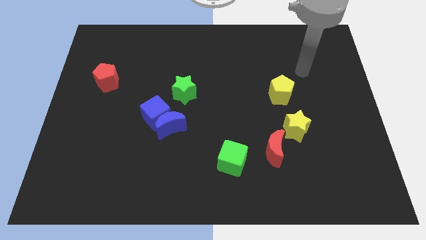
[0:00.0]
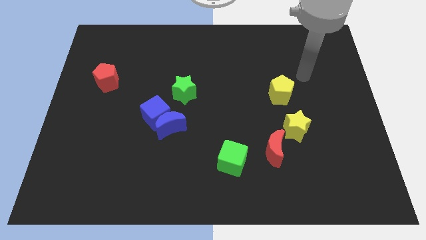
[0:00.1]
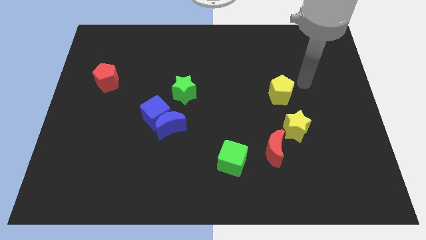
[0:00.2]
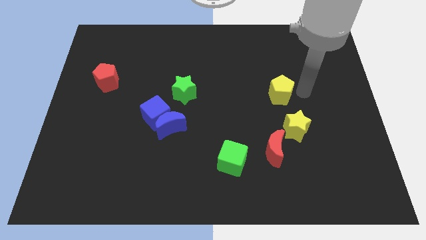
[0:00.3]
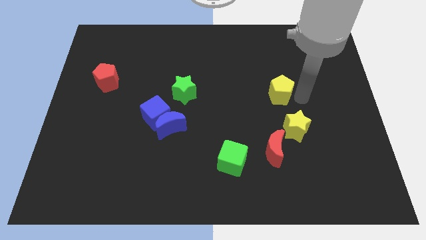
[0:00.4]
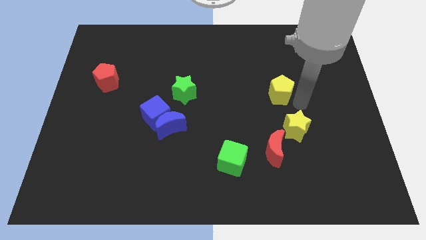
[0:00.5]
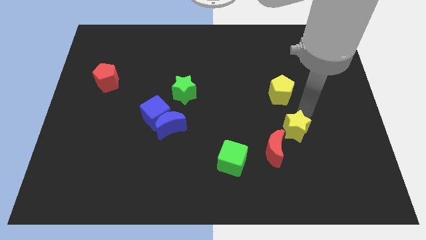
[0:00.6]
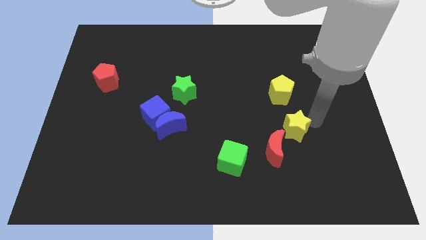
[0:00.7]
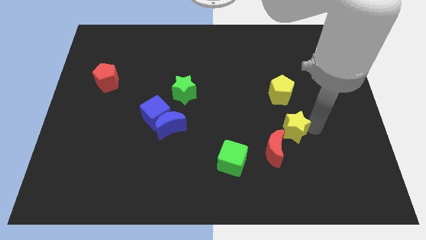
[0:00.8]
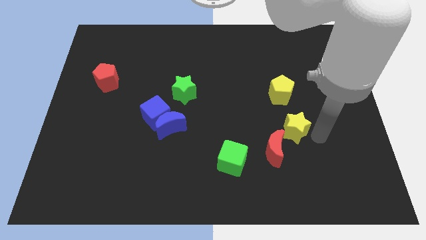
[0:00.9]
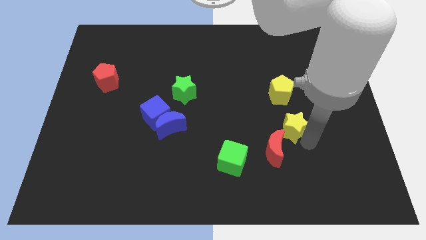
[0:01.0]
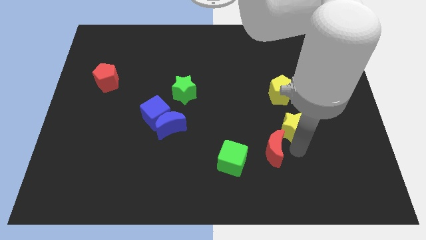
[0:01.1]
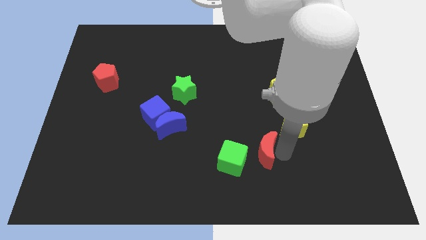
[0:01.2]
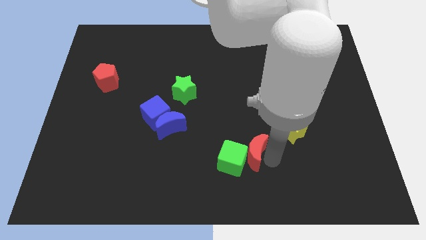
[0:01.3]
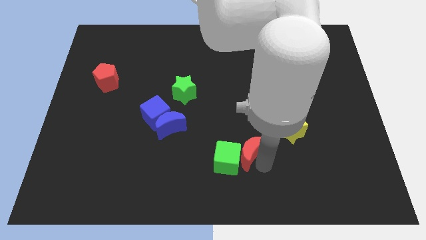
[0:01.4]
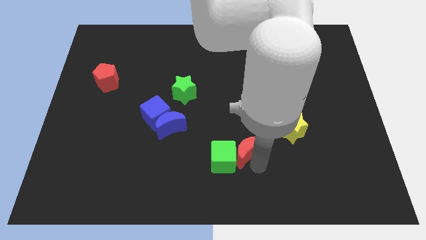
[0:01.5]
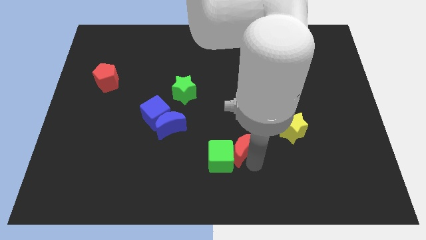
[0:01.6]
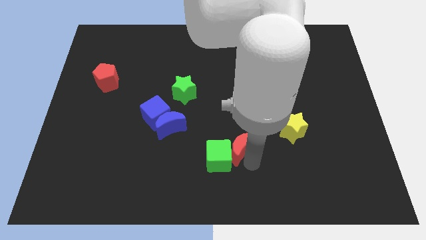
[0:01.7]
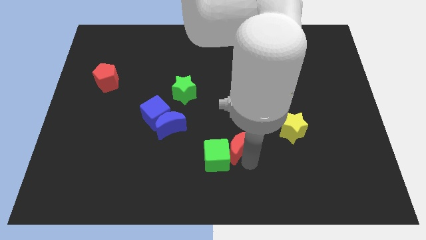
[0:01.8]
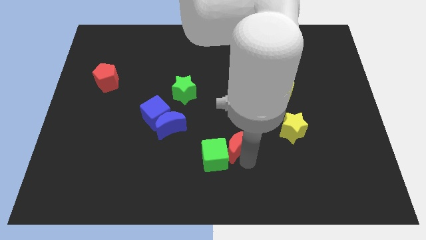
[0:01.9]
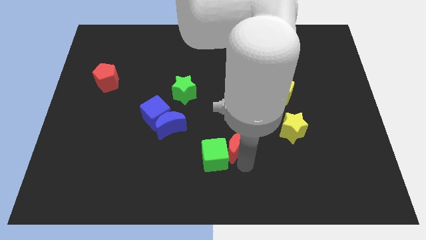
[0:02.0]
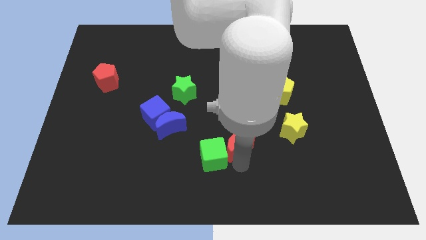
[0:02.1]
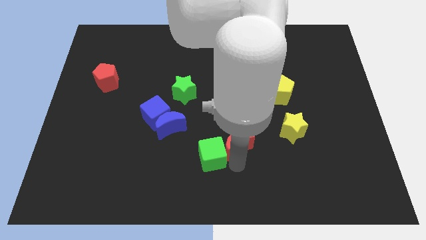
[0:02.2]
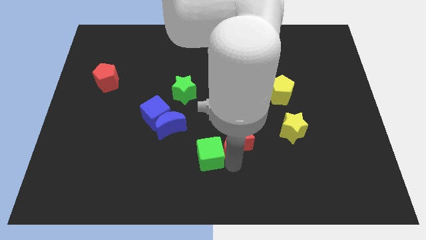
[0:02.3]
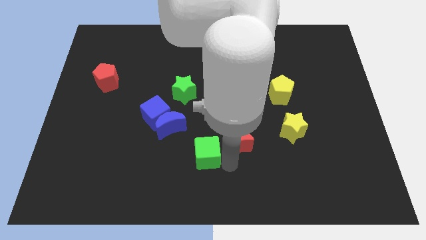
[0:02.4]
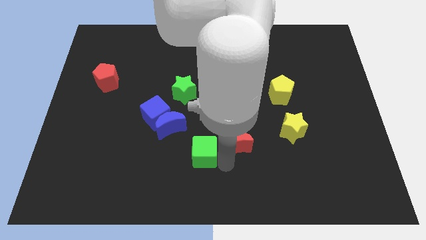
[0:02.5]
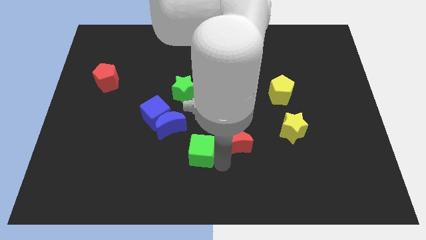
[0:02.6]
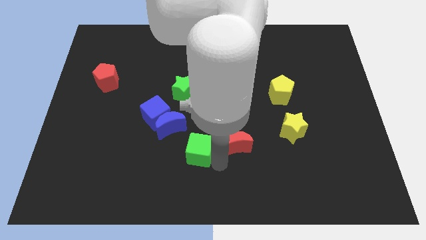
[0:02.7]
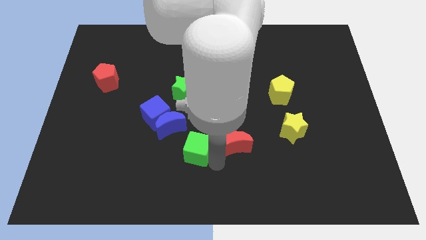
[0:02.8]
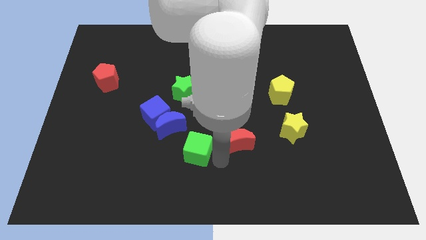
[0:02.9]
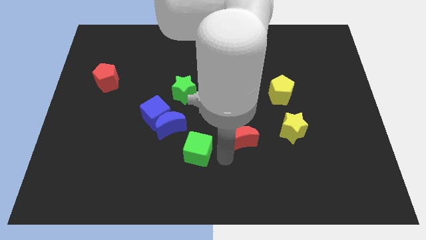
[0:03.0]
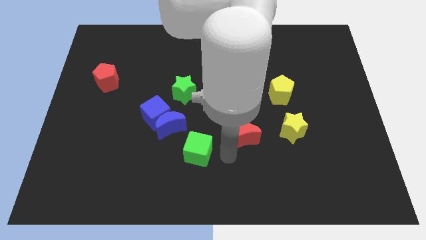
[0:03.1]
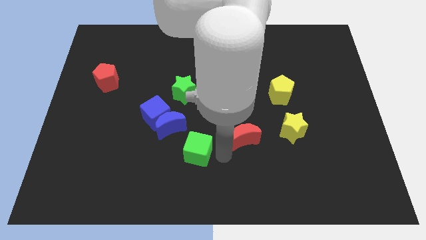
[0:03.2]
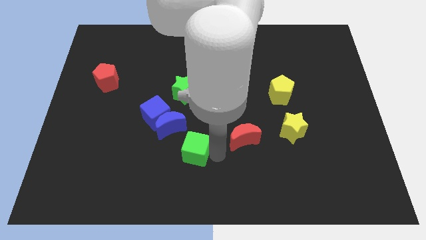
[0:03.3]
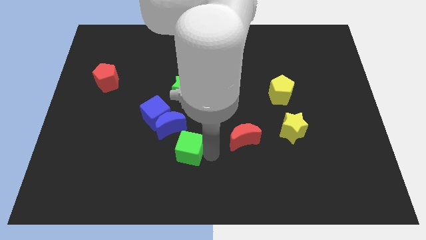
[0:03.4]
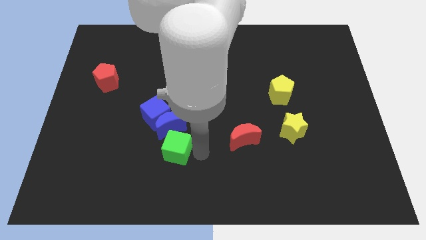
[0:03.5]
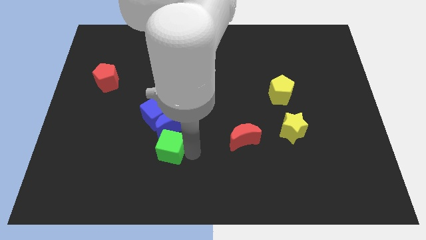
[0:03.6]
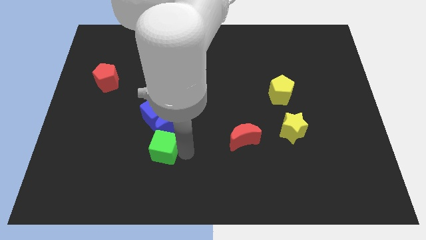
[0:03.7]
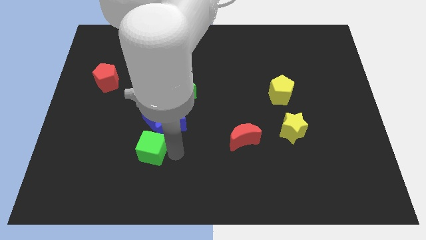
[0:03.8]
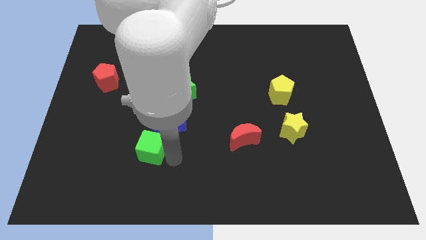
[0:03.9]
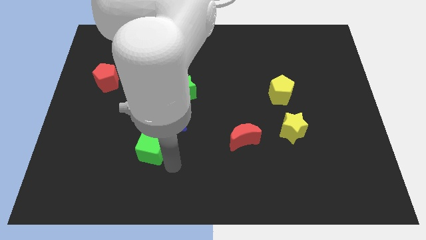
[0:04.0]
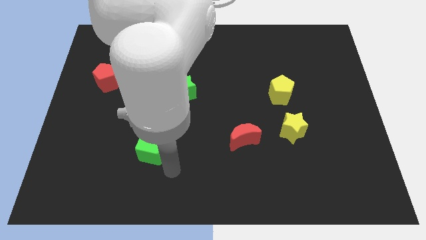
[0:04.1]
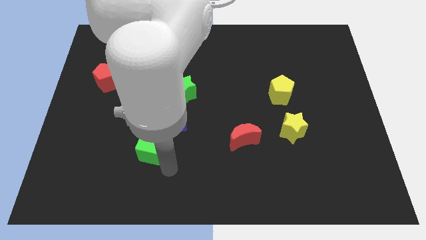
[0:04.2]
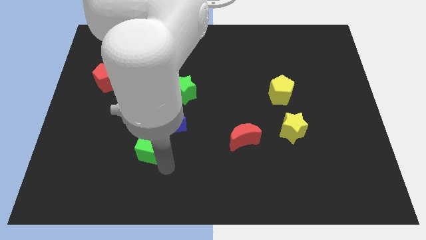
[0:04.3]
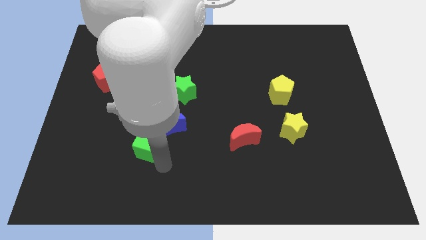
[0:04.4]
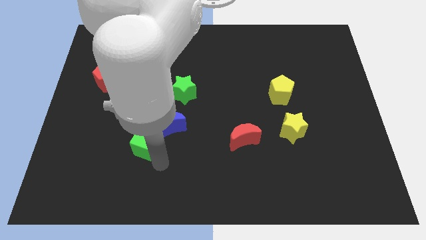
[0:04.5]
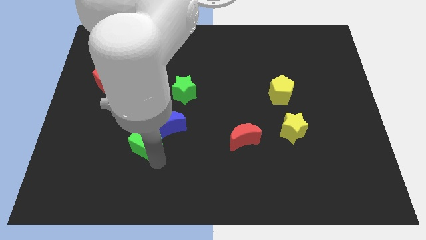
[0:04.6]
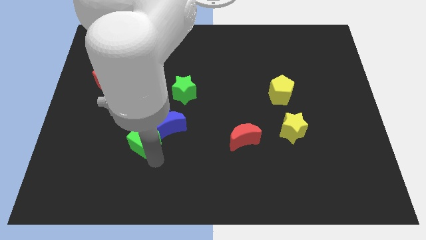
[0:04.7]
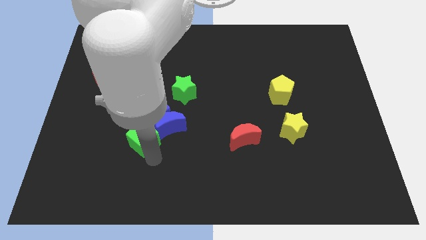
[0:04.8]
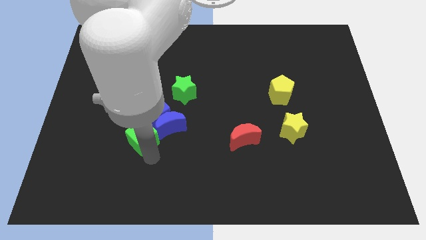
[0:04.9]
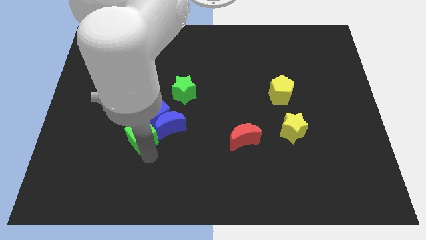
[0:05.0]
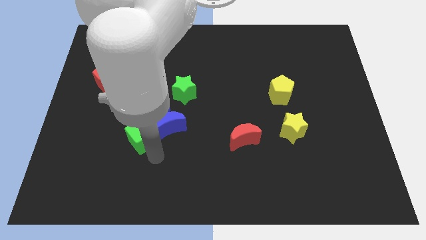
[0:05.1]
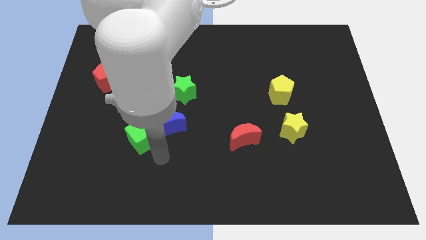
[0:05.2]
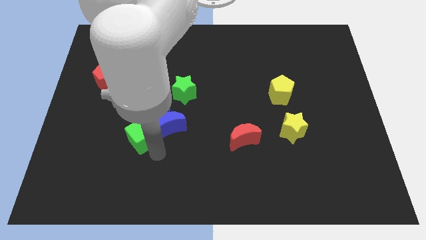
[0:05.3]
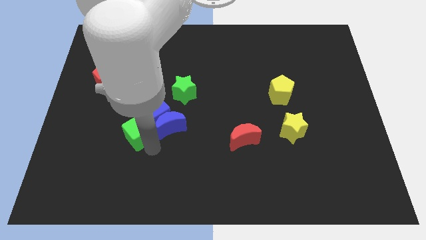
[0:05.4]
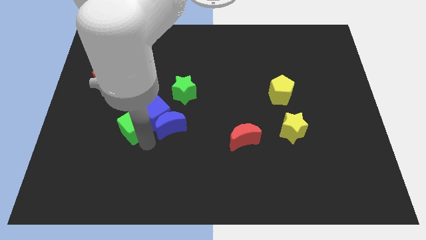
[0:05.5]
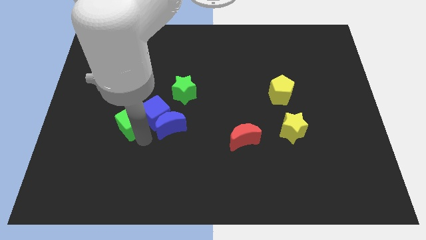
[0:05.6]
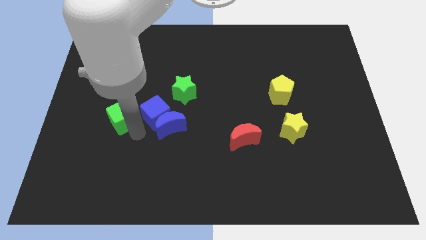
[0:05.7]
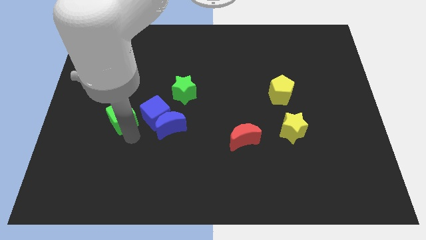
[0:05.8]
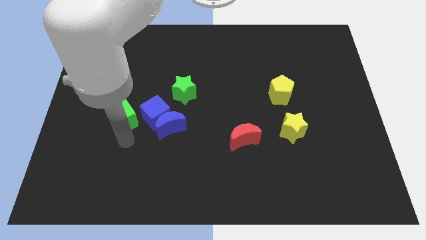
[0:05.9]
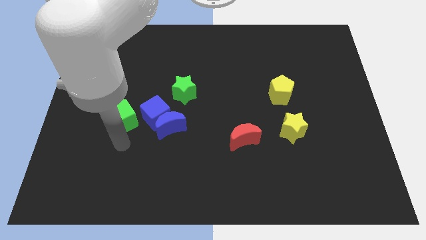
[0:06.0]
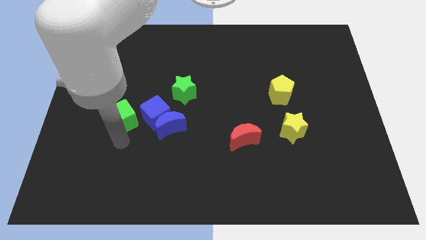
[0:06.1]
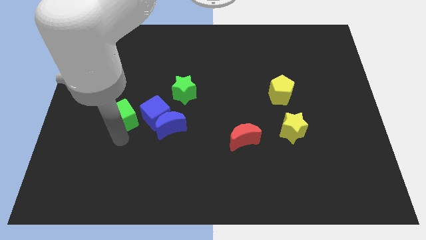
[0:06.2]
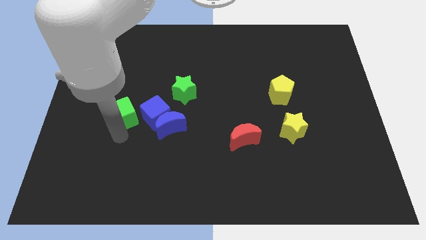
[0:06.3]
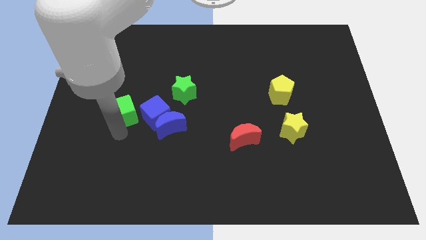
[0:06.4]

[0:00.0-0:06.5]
move the green cube to the bottom right side of the red pentagon
